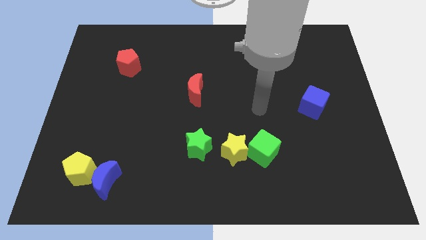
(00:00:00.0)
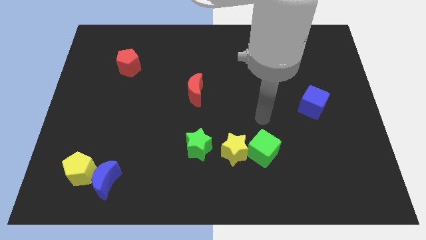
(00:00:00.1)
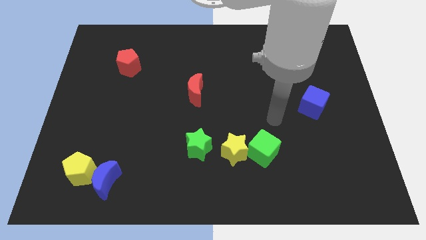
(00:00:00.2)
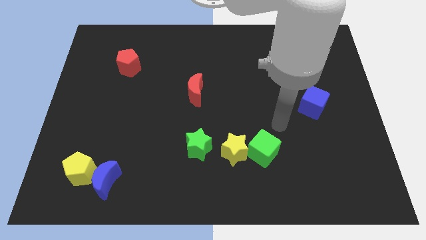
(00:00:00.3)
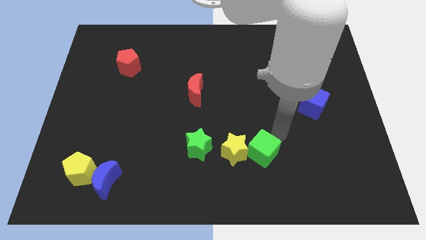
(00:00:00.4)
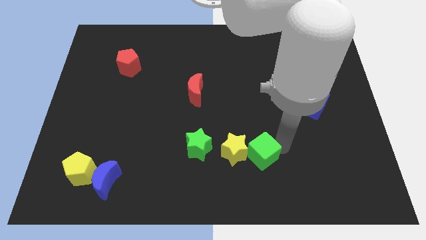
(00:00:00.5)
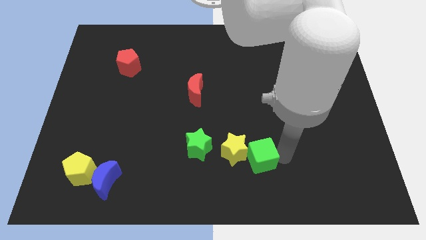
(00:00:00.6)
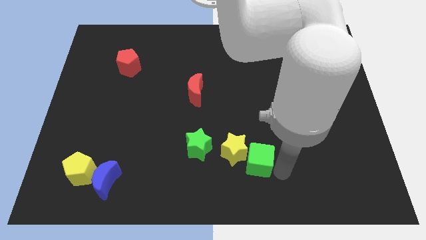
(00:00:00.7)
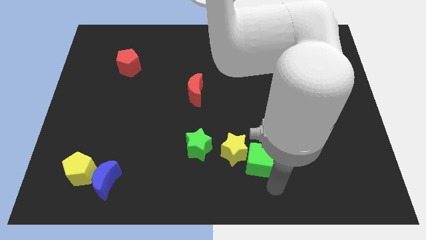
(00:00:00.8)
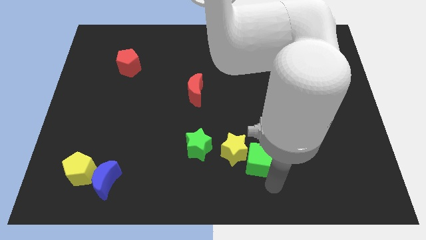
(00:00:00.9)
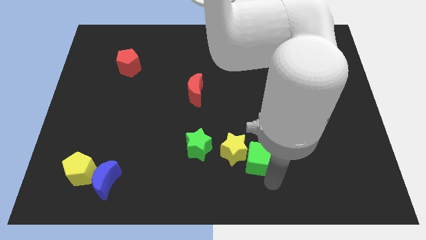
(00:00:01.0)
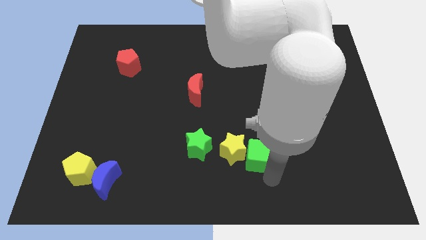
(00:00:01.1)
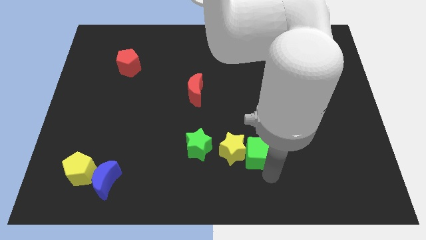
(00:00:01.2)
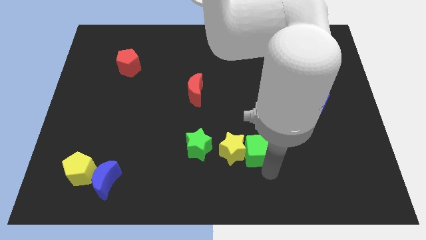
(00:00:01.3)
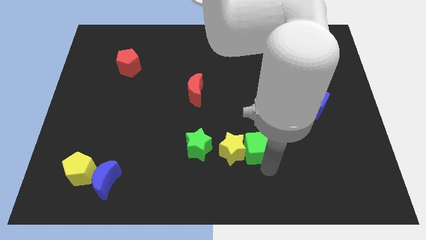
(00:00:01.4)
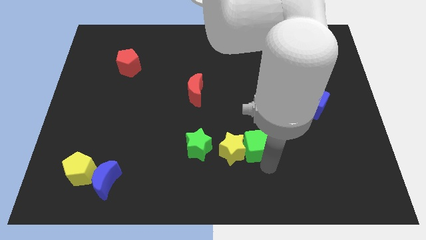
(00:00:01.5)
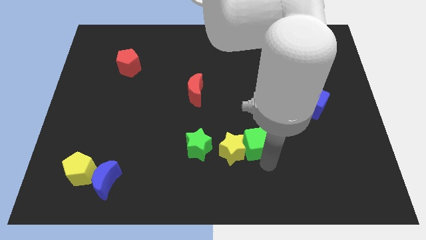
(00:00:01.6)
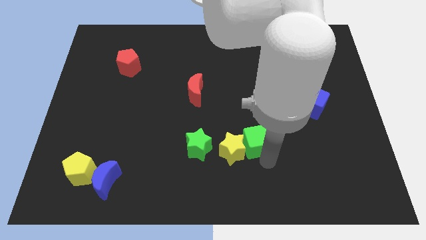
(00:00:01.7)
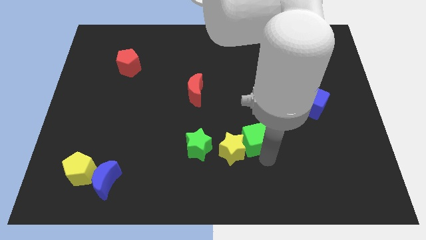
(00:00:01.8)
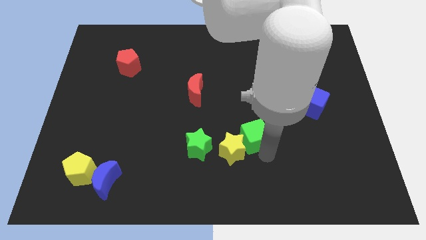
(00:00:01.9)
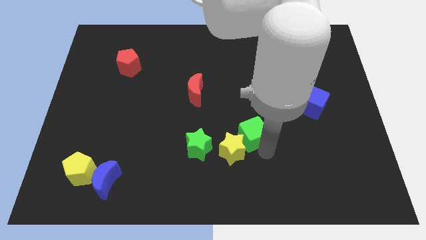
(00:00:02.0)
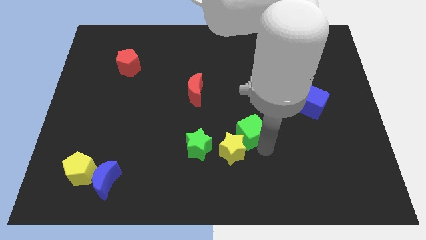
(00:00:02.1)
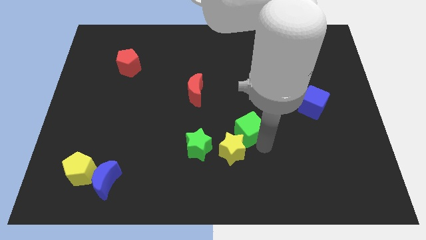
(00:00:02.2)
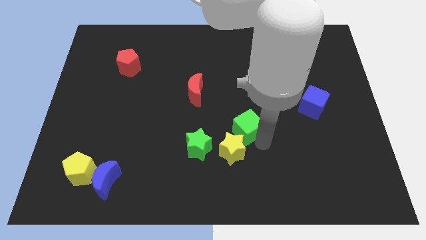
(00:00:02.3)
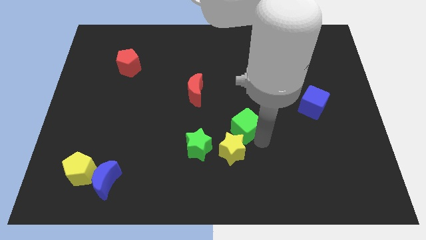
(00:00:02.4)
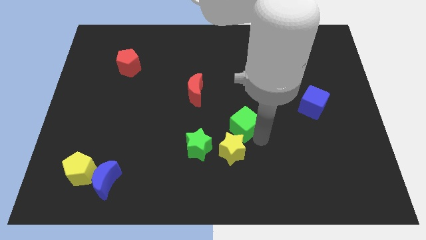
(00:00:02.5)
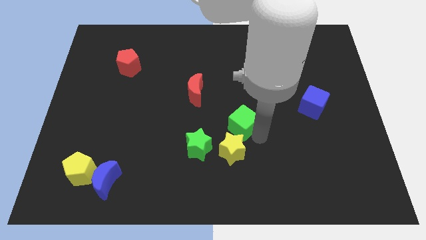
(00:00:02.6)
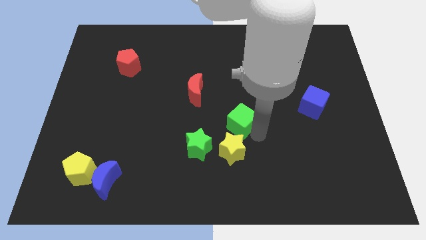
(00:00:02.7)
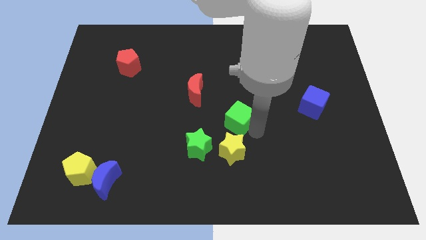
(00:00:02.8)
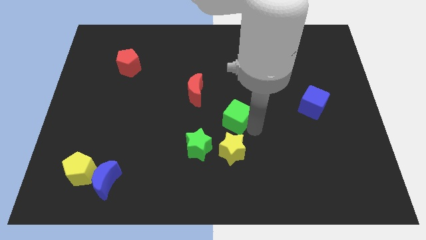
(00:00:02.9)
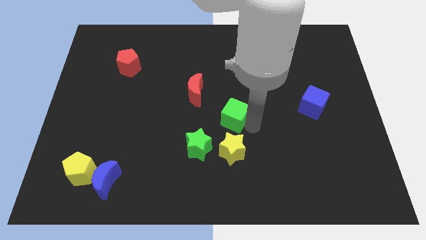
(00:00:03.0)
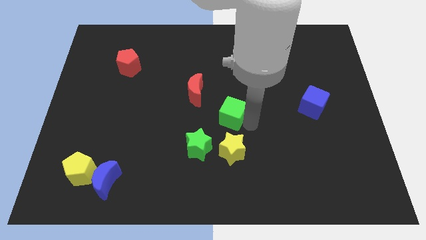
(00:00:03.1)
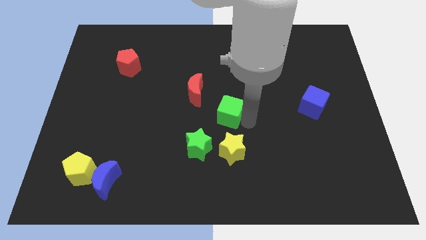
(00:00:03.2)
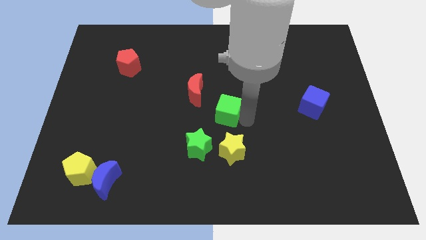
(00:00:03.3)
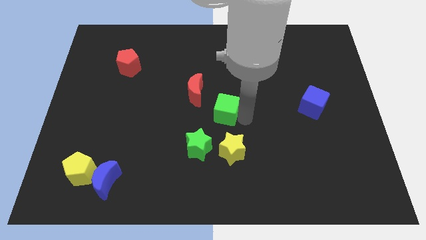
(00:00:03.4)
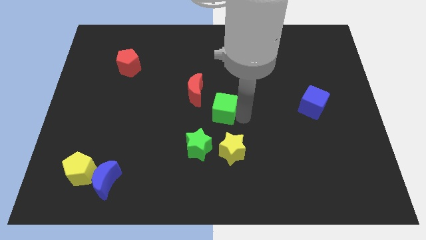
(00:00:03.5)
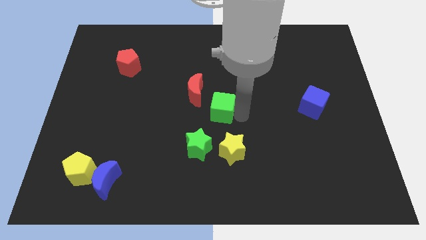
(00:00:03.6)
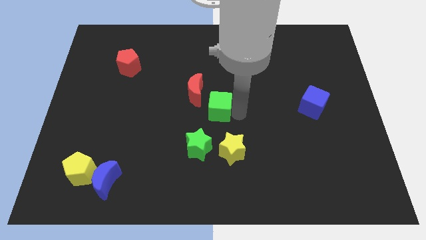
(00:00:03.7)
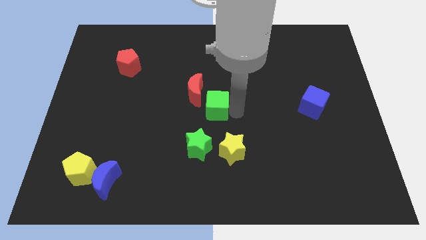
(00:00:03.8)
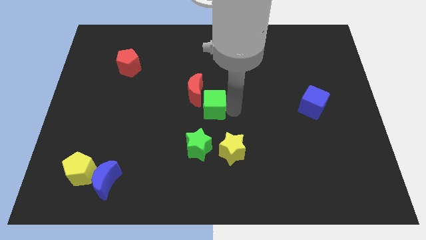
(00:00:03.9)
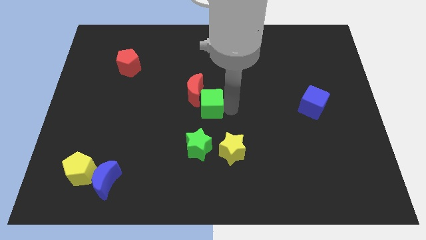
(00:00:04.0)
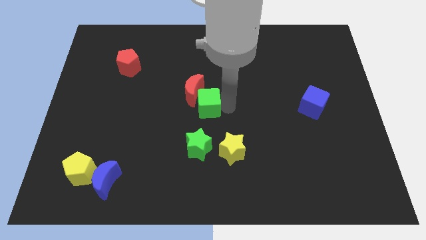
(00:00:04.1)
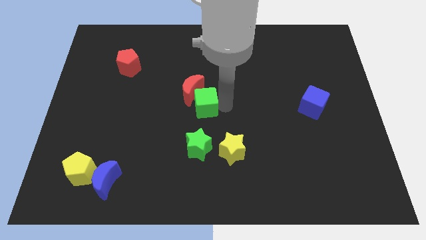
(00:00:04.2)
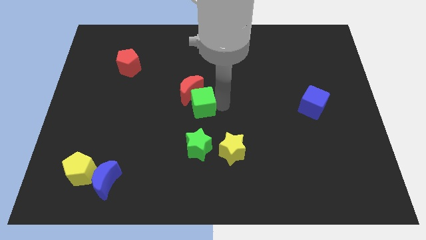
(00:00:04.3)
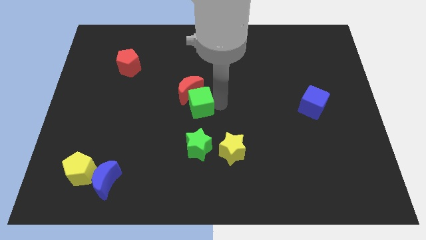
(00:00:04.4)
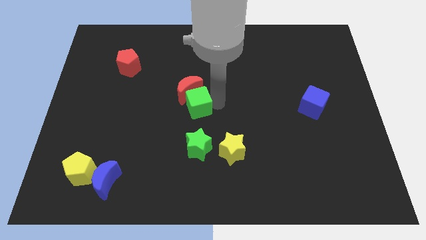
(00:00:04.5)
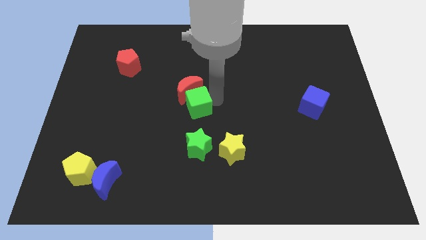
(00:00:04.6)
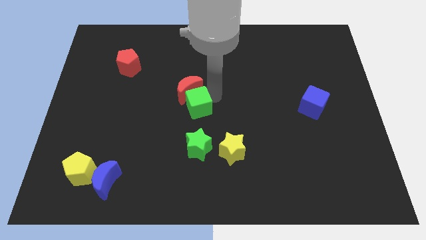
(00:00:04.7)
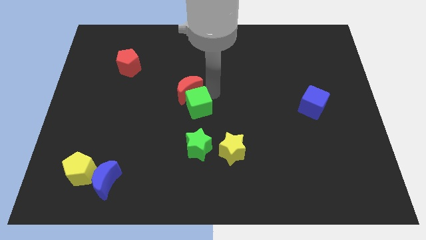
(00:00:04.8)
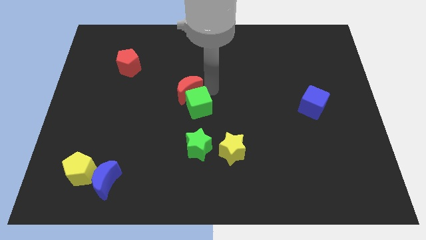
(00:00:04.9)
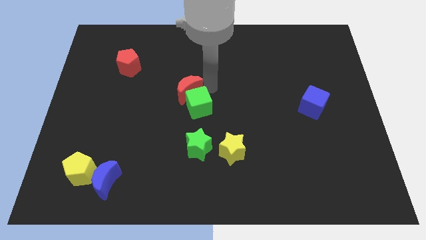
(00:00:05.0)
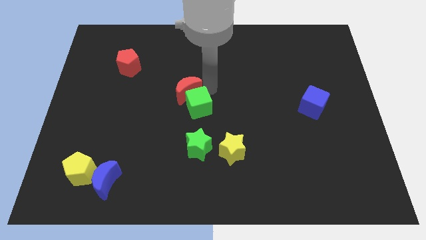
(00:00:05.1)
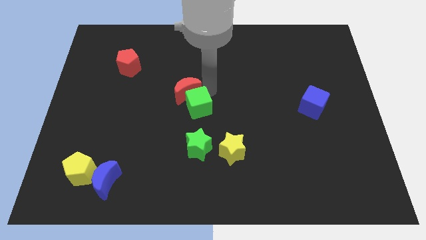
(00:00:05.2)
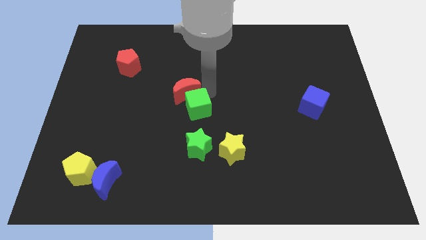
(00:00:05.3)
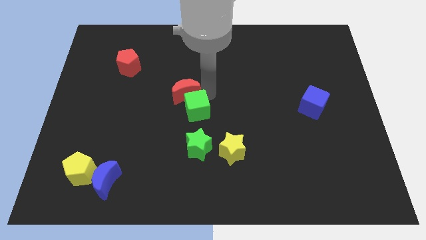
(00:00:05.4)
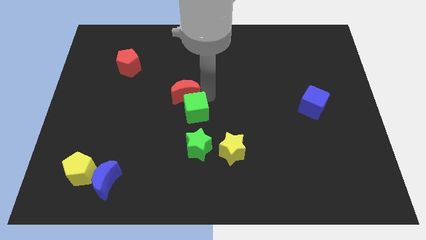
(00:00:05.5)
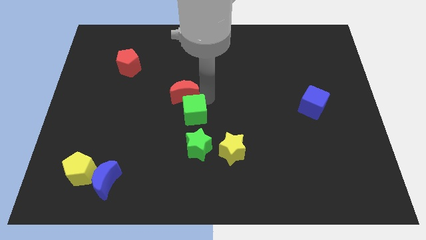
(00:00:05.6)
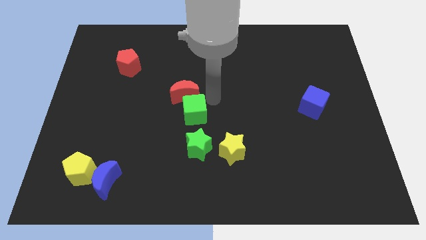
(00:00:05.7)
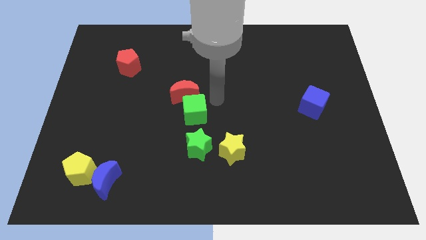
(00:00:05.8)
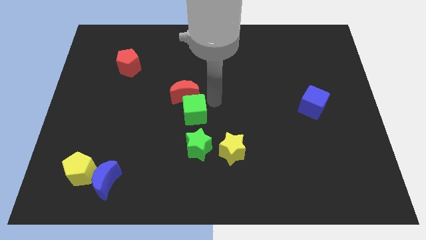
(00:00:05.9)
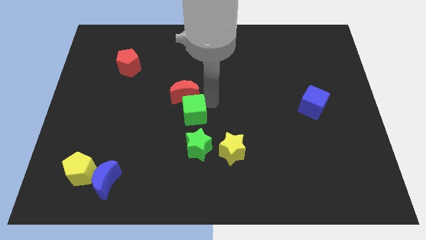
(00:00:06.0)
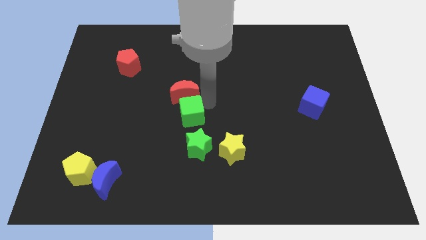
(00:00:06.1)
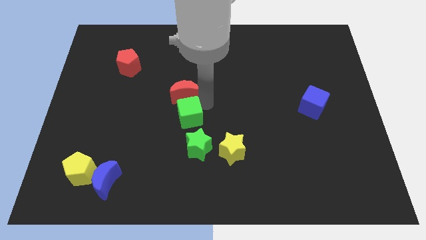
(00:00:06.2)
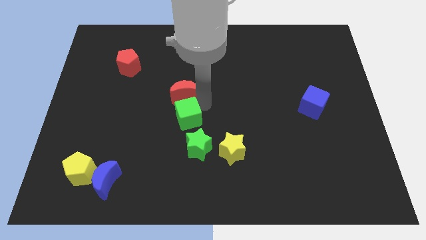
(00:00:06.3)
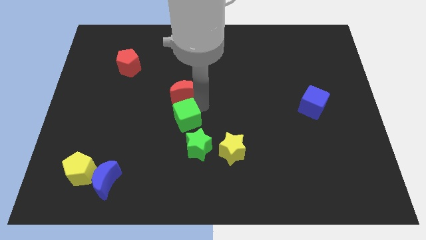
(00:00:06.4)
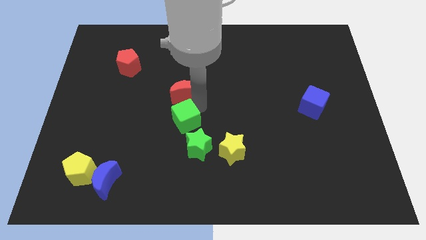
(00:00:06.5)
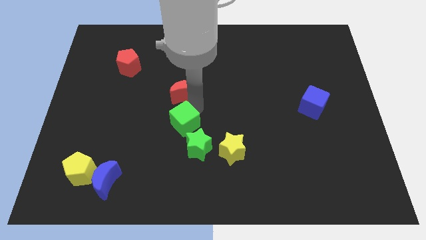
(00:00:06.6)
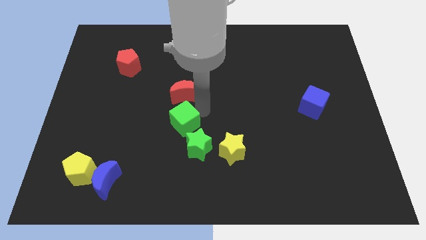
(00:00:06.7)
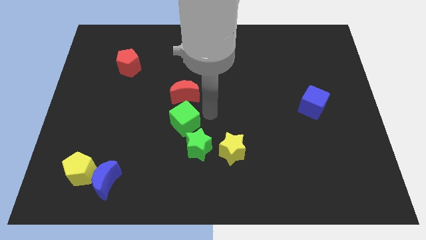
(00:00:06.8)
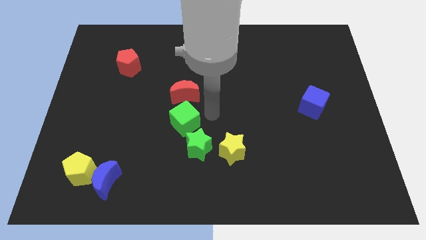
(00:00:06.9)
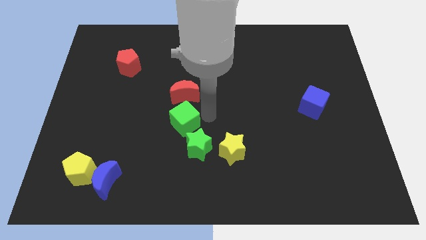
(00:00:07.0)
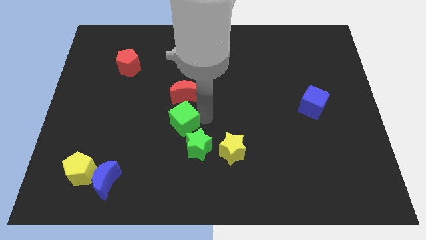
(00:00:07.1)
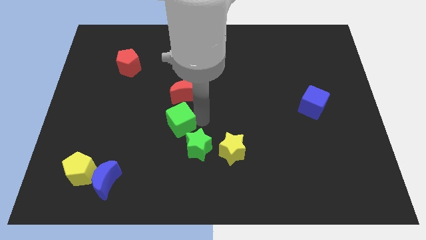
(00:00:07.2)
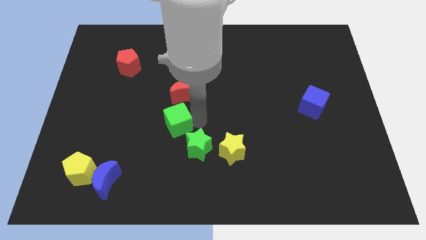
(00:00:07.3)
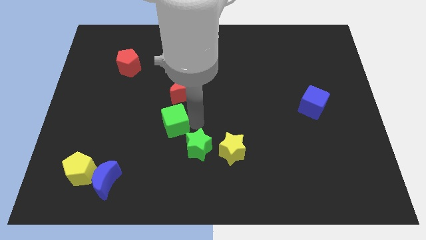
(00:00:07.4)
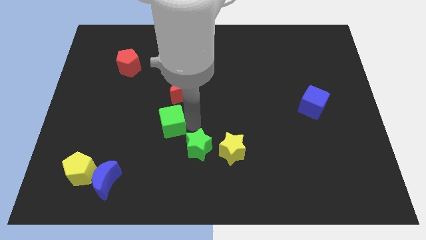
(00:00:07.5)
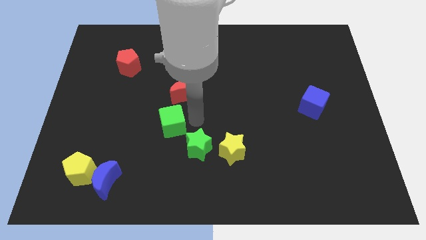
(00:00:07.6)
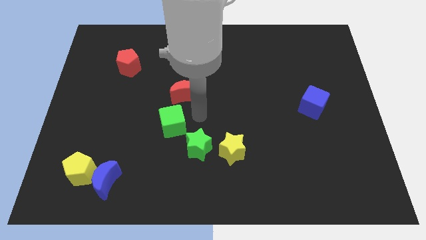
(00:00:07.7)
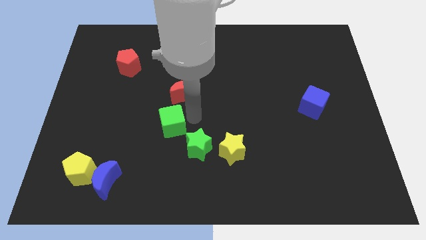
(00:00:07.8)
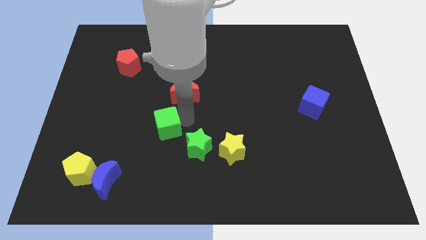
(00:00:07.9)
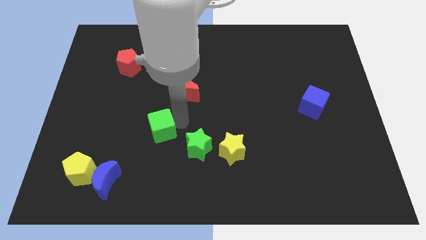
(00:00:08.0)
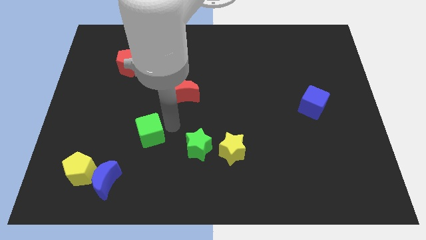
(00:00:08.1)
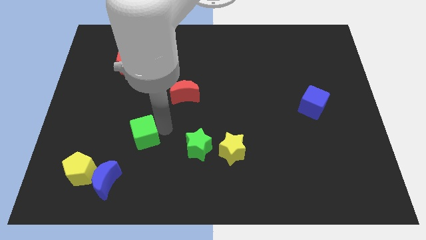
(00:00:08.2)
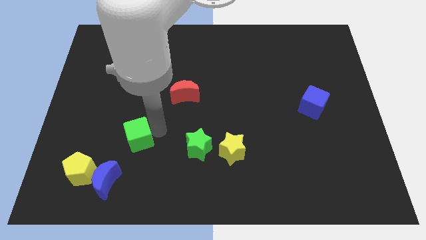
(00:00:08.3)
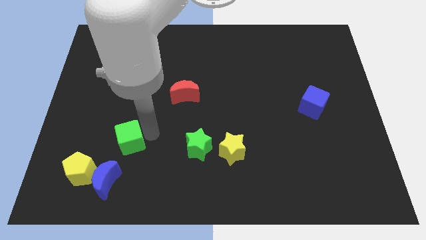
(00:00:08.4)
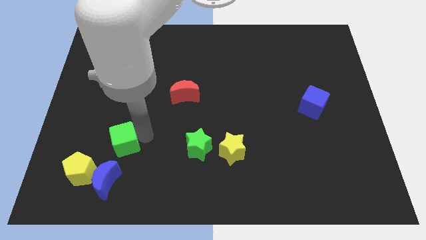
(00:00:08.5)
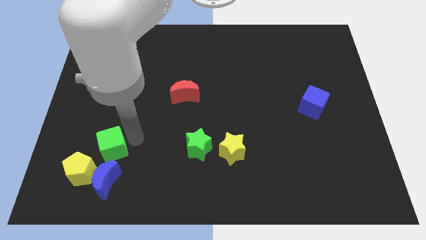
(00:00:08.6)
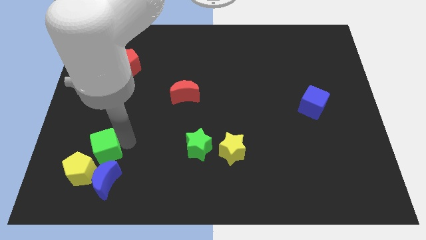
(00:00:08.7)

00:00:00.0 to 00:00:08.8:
slide the green cube to the top left side of the blue moon
